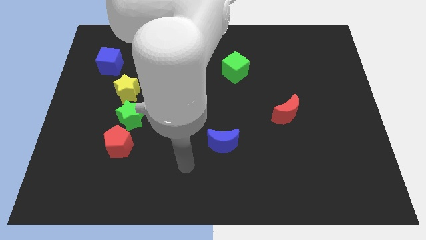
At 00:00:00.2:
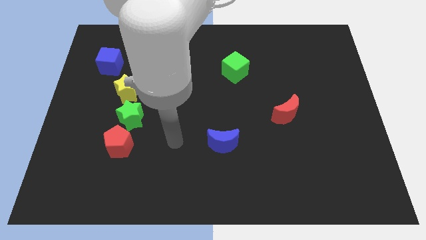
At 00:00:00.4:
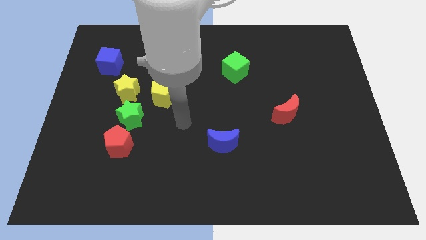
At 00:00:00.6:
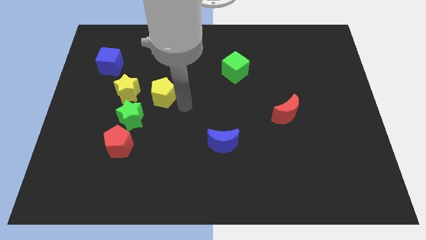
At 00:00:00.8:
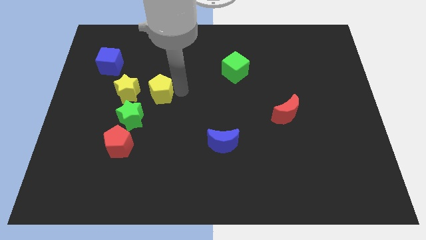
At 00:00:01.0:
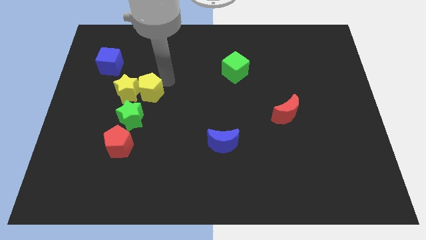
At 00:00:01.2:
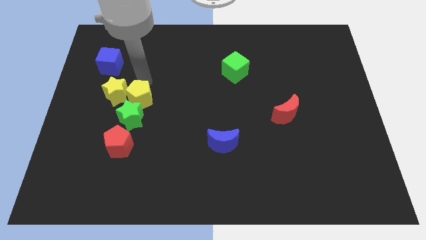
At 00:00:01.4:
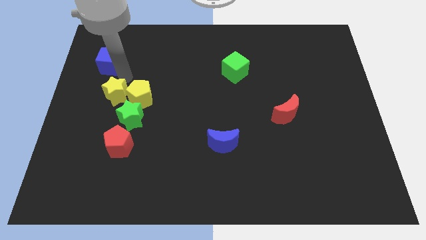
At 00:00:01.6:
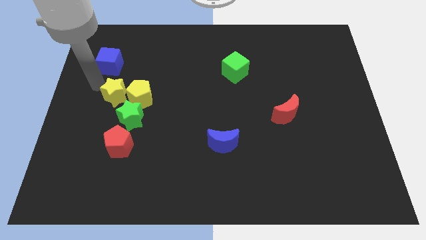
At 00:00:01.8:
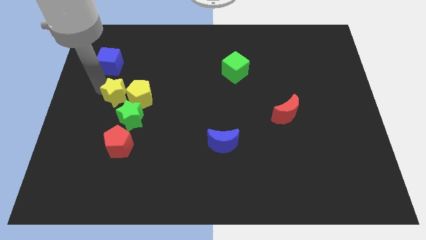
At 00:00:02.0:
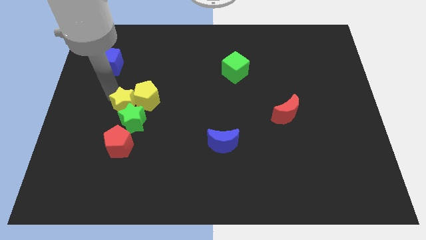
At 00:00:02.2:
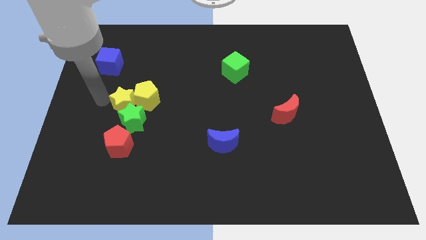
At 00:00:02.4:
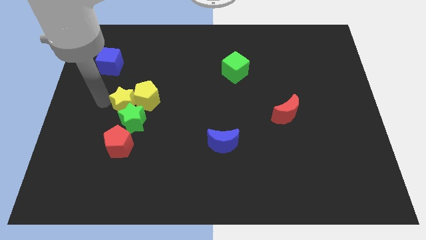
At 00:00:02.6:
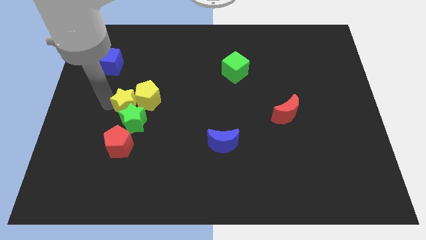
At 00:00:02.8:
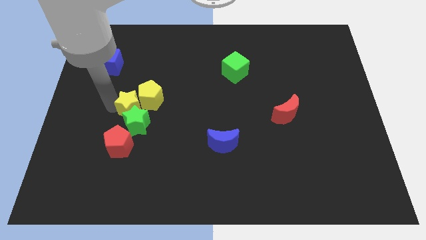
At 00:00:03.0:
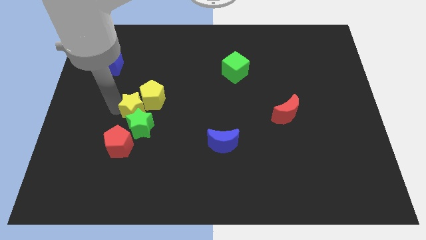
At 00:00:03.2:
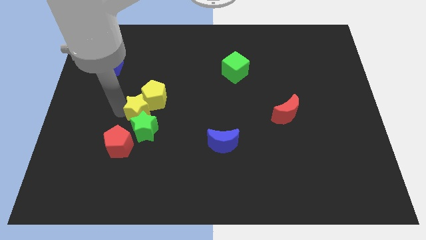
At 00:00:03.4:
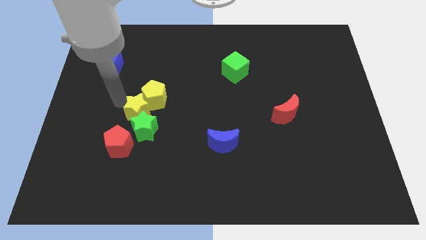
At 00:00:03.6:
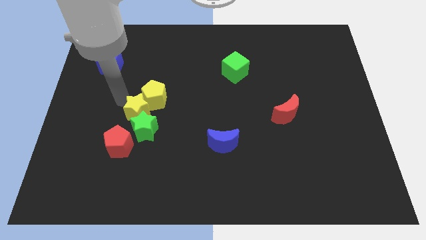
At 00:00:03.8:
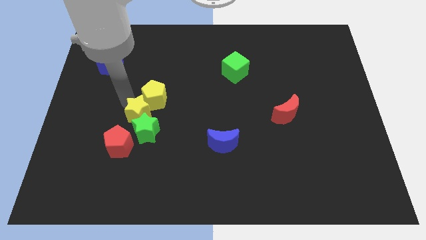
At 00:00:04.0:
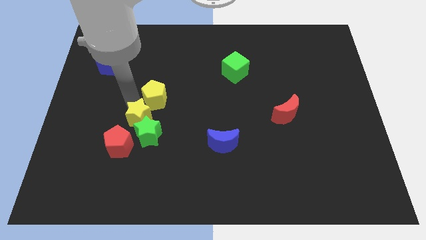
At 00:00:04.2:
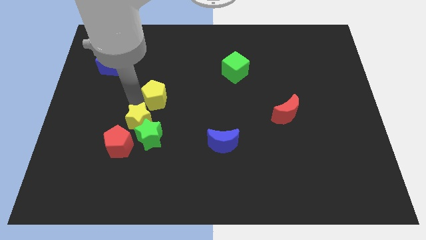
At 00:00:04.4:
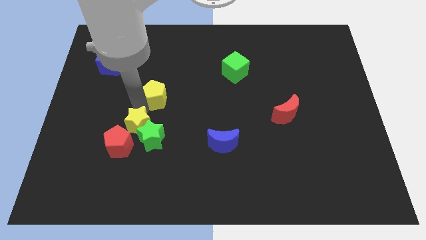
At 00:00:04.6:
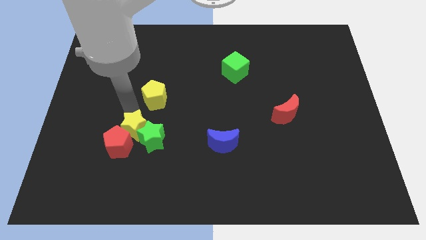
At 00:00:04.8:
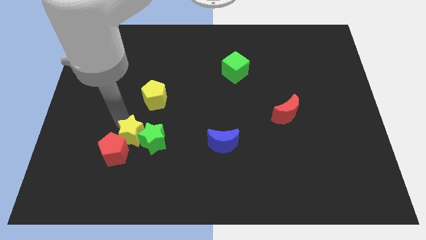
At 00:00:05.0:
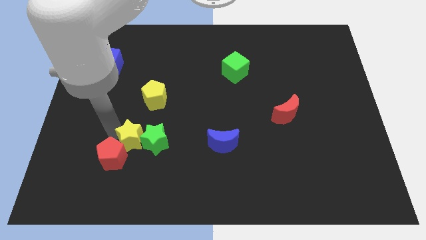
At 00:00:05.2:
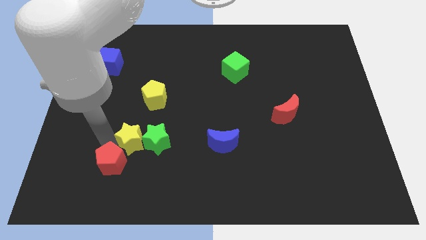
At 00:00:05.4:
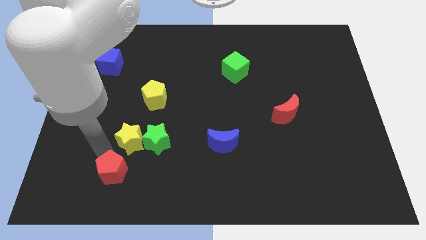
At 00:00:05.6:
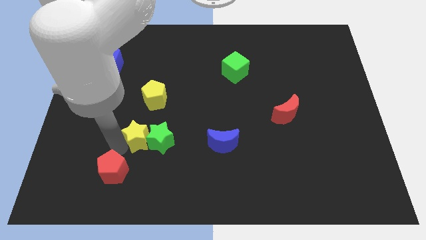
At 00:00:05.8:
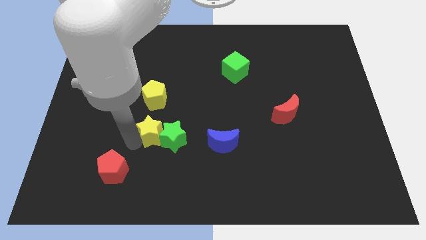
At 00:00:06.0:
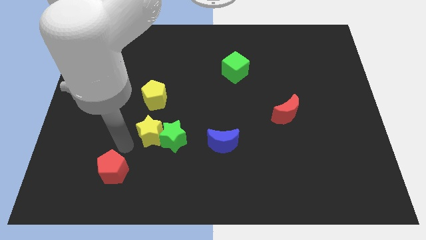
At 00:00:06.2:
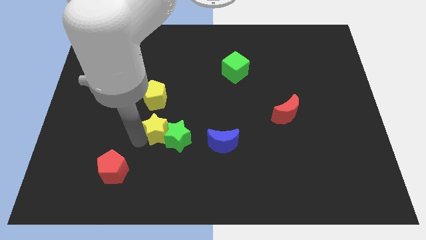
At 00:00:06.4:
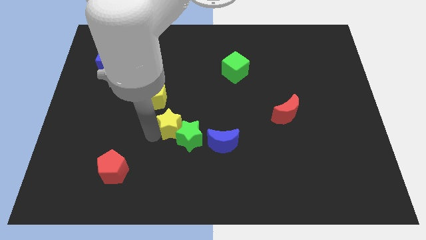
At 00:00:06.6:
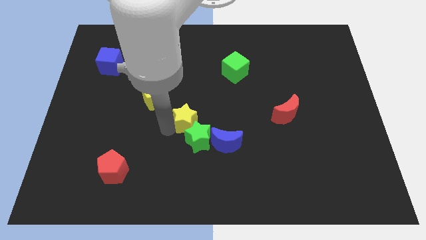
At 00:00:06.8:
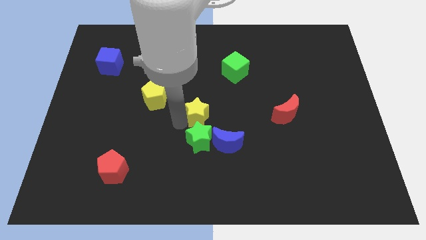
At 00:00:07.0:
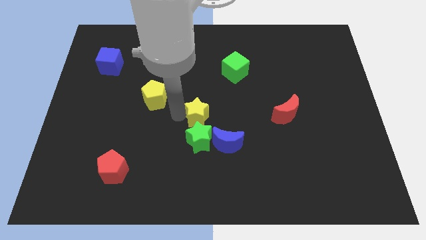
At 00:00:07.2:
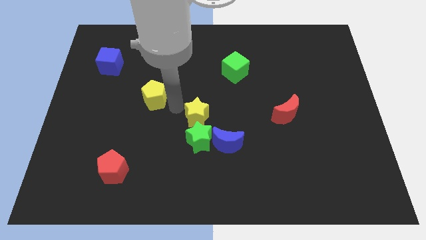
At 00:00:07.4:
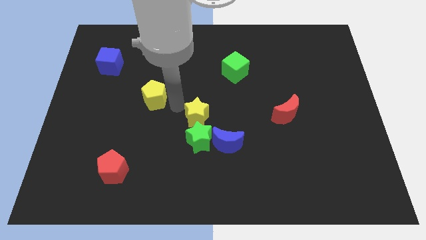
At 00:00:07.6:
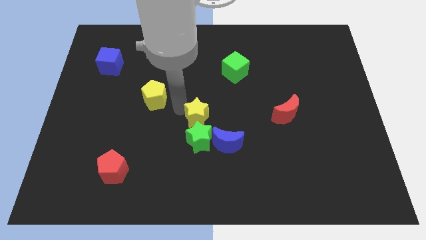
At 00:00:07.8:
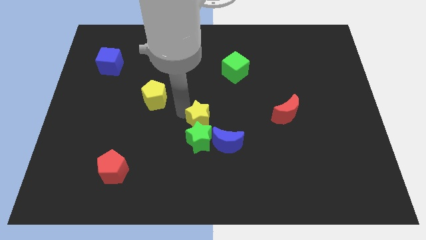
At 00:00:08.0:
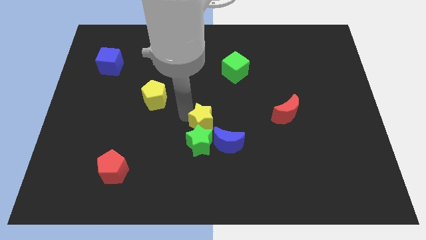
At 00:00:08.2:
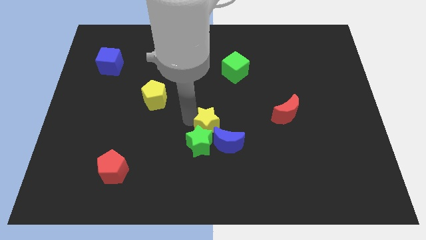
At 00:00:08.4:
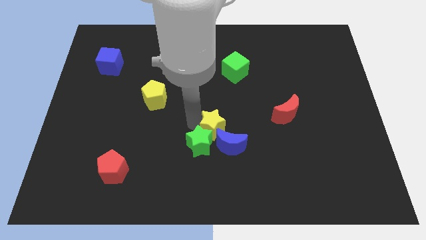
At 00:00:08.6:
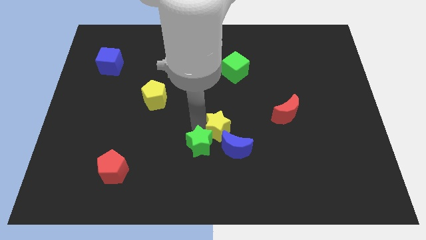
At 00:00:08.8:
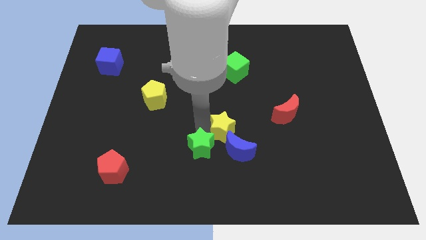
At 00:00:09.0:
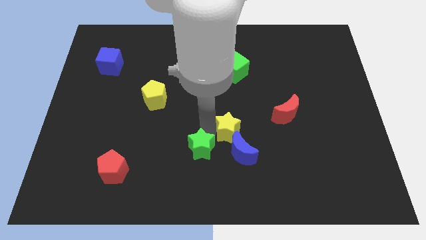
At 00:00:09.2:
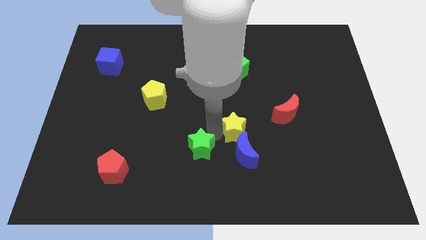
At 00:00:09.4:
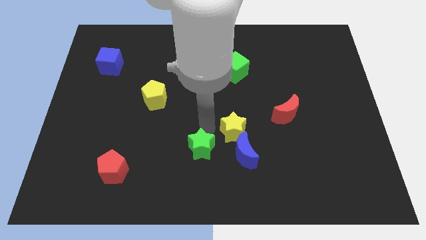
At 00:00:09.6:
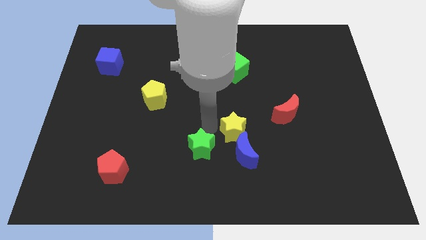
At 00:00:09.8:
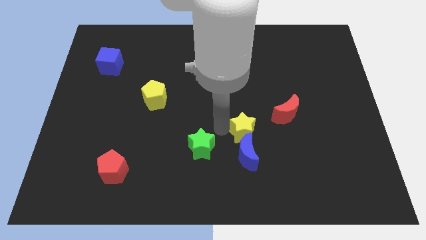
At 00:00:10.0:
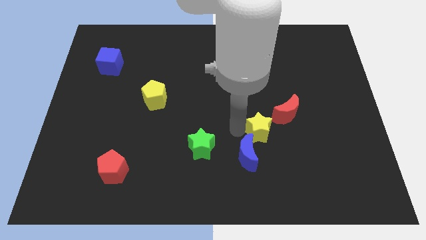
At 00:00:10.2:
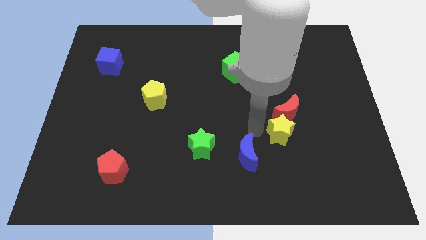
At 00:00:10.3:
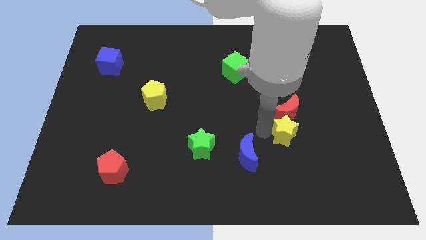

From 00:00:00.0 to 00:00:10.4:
push the yellow star diagonally down and to the right of the red moon

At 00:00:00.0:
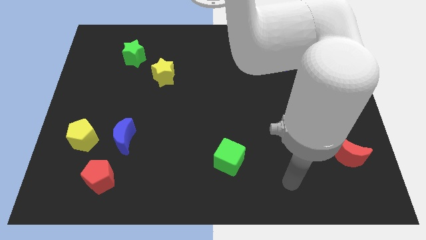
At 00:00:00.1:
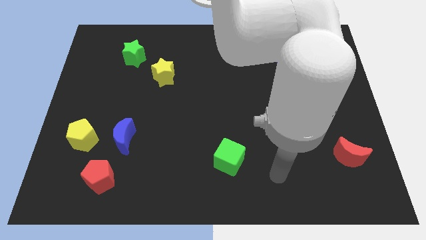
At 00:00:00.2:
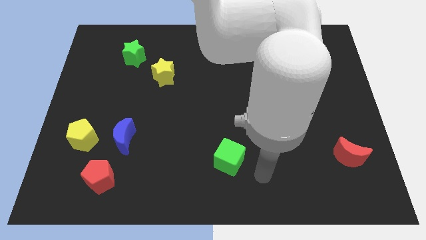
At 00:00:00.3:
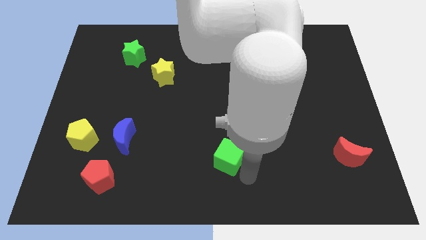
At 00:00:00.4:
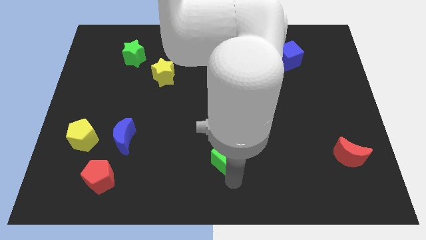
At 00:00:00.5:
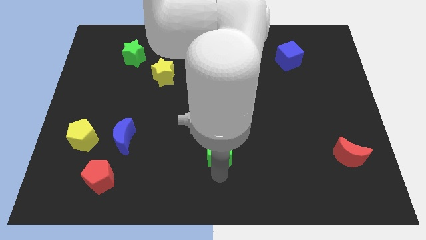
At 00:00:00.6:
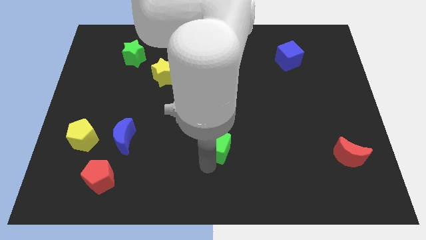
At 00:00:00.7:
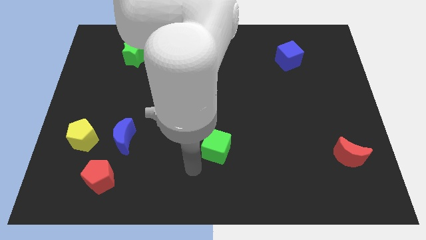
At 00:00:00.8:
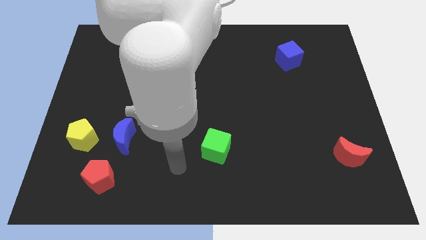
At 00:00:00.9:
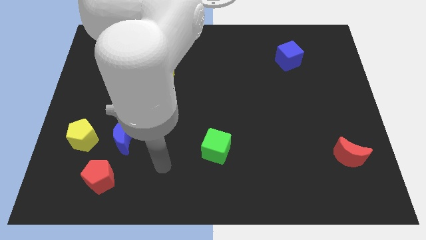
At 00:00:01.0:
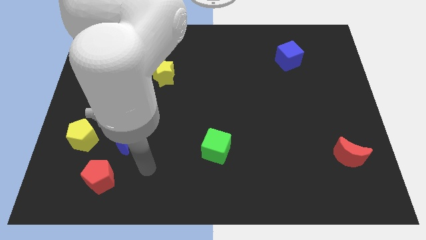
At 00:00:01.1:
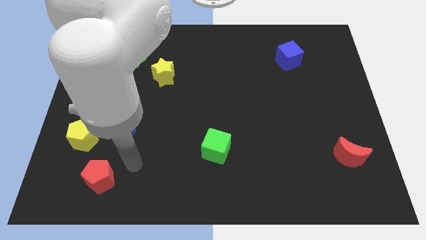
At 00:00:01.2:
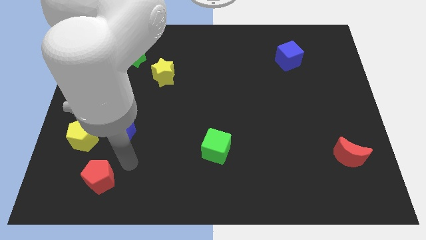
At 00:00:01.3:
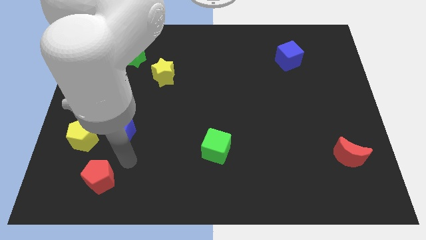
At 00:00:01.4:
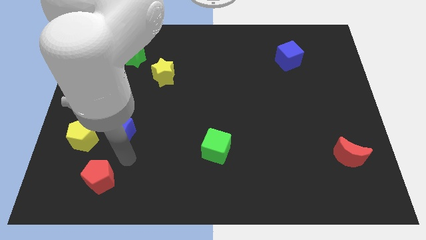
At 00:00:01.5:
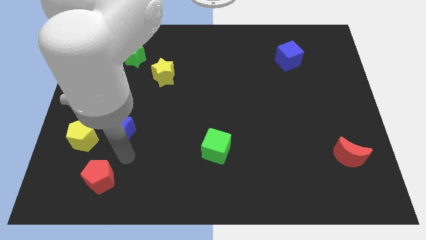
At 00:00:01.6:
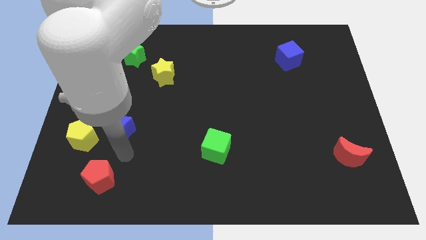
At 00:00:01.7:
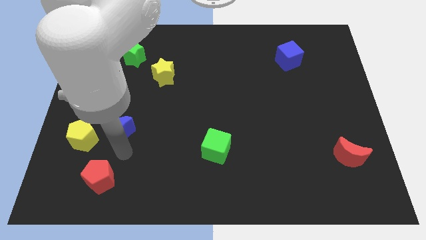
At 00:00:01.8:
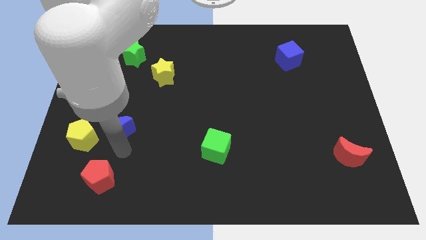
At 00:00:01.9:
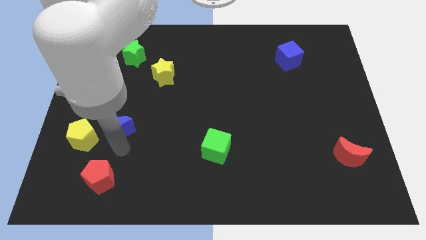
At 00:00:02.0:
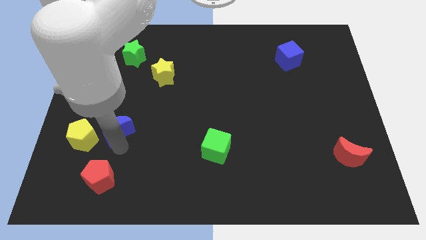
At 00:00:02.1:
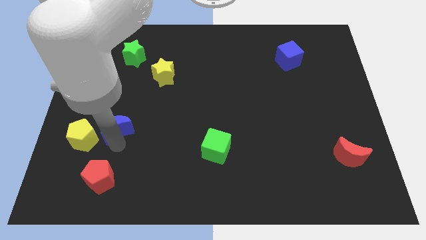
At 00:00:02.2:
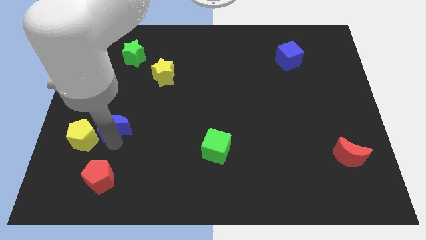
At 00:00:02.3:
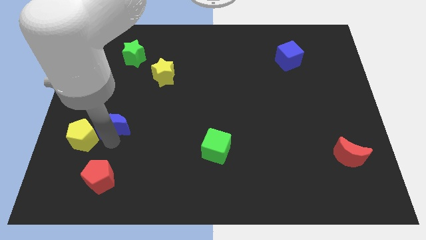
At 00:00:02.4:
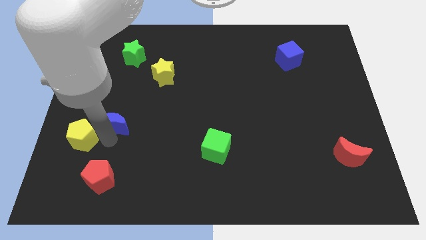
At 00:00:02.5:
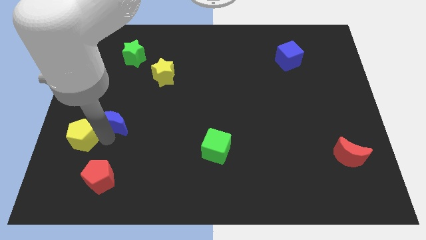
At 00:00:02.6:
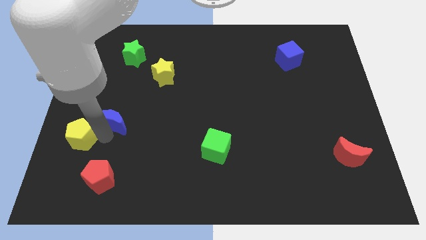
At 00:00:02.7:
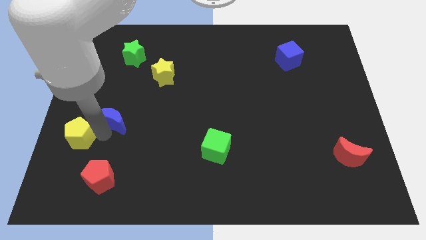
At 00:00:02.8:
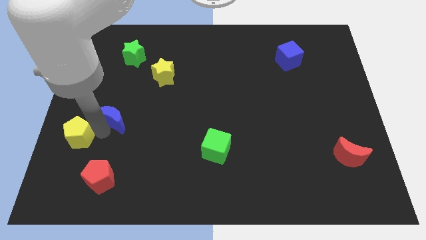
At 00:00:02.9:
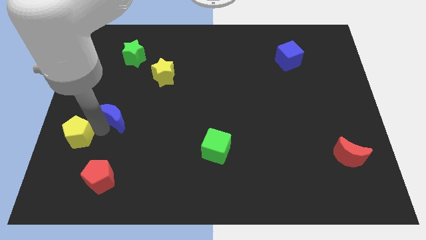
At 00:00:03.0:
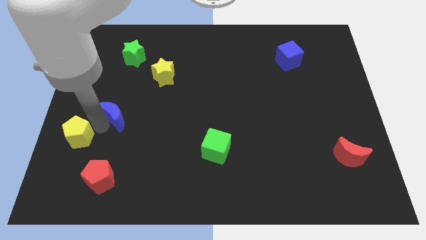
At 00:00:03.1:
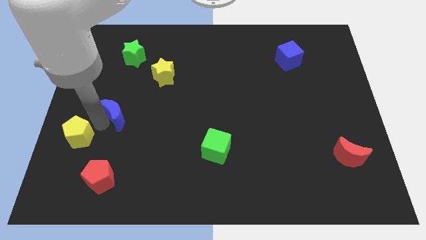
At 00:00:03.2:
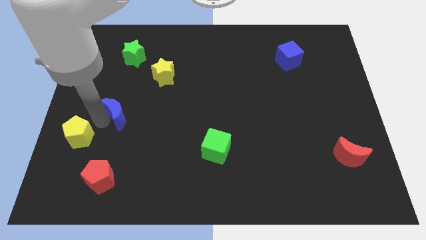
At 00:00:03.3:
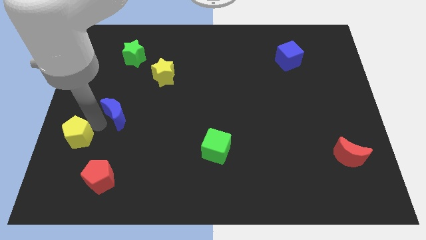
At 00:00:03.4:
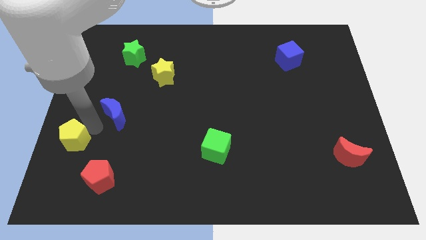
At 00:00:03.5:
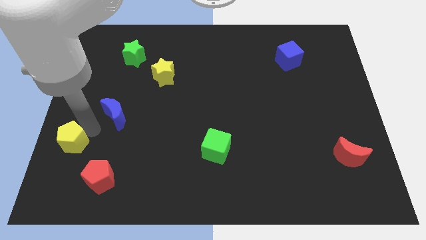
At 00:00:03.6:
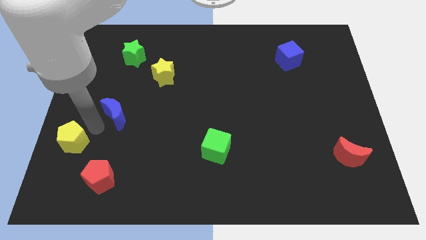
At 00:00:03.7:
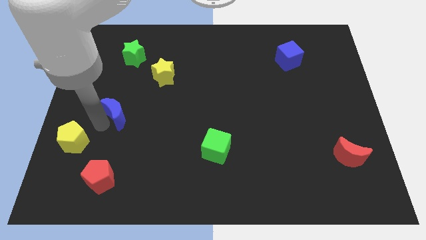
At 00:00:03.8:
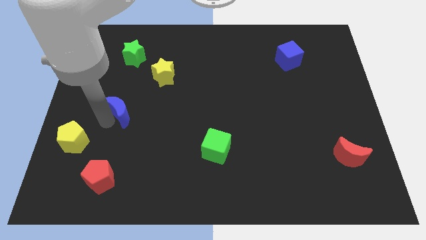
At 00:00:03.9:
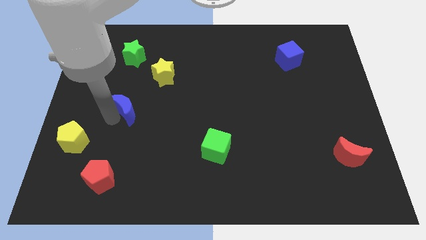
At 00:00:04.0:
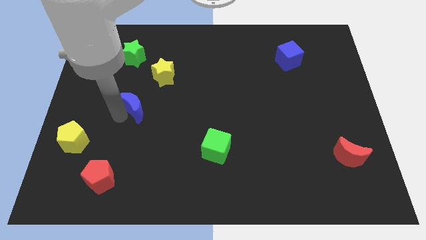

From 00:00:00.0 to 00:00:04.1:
slide the blue moon to the bottom left side of the yellow star
